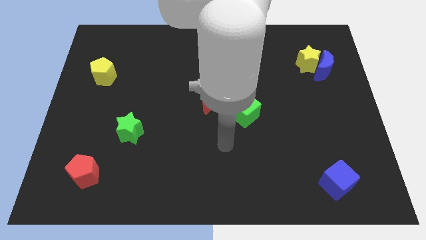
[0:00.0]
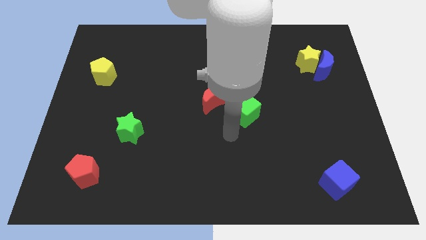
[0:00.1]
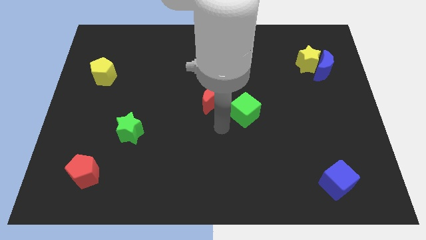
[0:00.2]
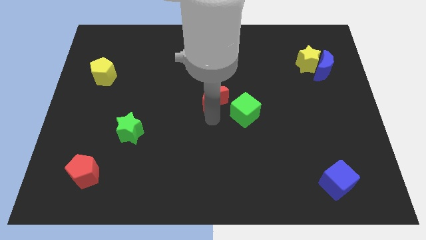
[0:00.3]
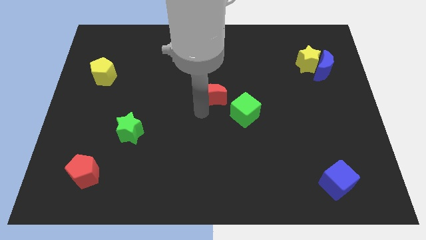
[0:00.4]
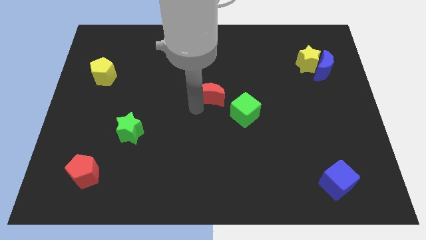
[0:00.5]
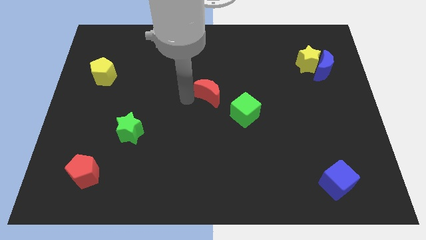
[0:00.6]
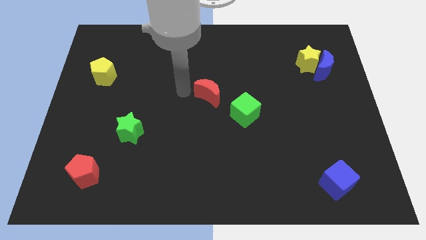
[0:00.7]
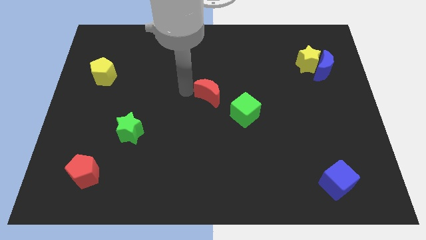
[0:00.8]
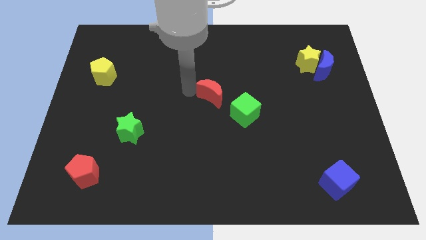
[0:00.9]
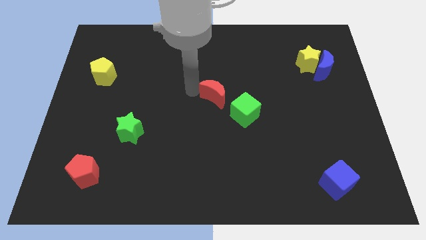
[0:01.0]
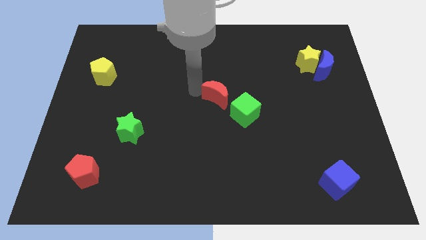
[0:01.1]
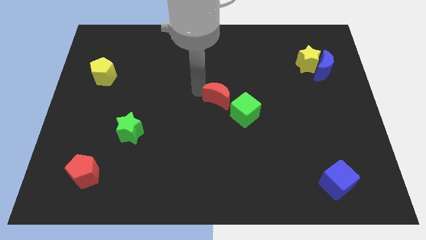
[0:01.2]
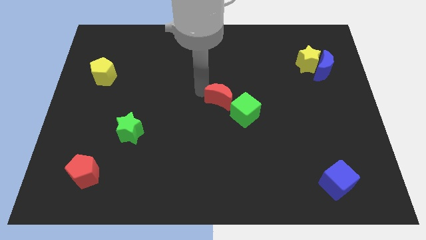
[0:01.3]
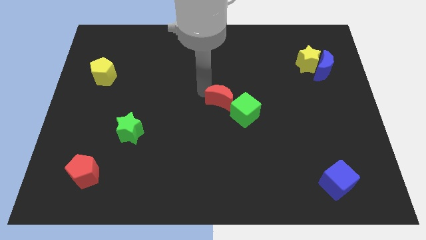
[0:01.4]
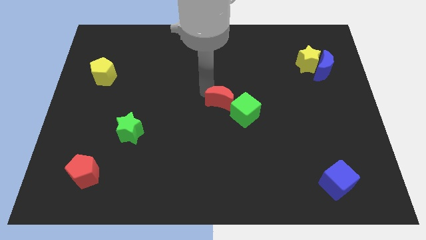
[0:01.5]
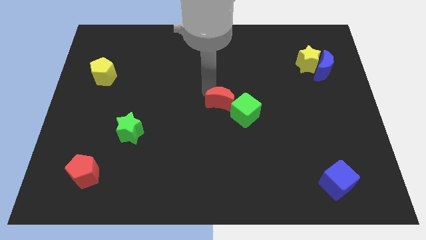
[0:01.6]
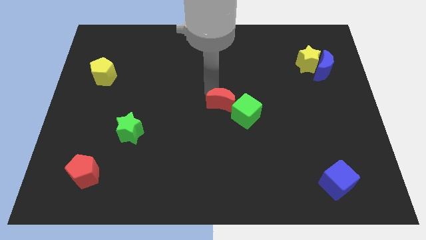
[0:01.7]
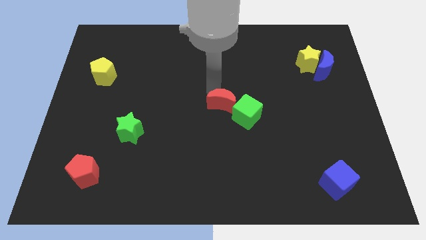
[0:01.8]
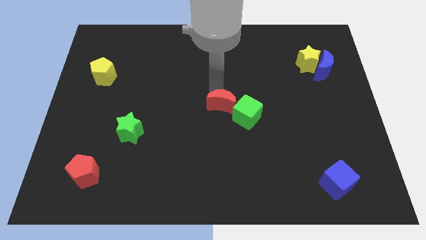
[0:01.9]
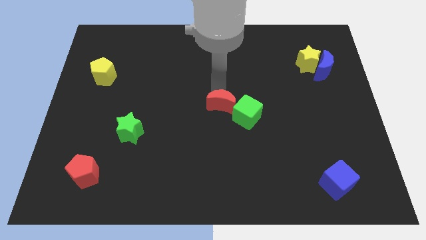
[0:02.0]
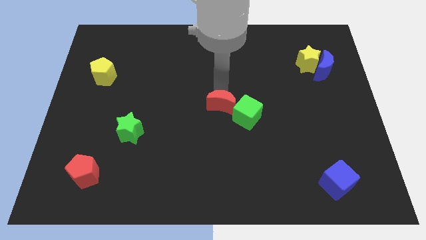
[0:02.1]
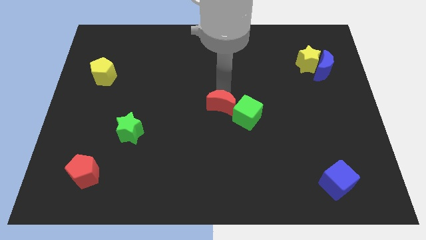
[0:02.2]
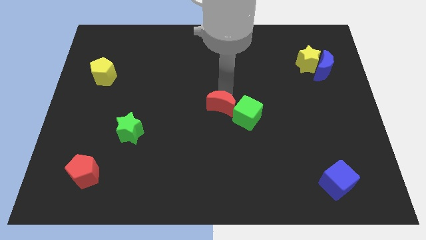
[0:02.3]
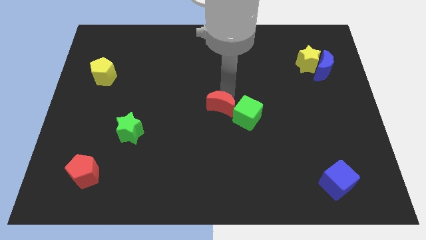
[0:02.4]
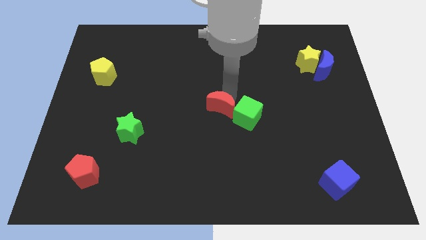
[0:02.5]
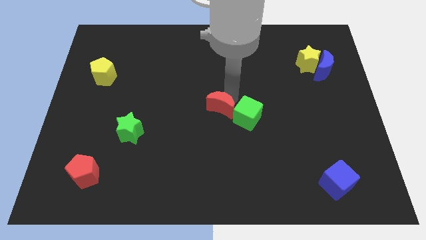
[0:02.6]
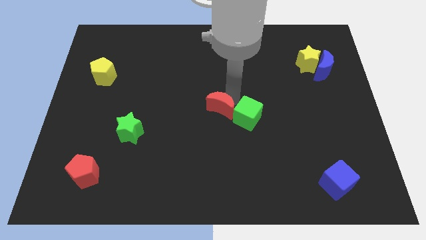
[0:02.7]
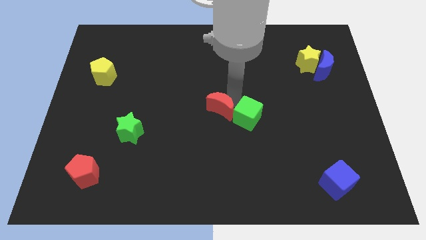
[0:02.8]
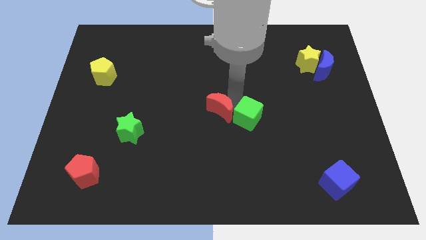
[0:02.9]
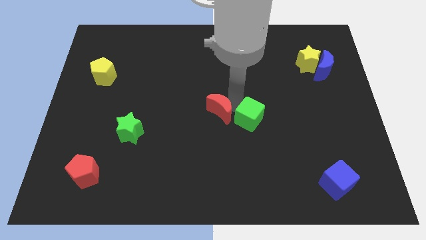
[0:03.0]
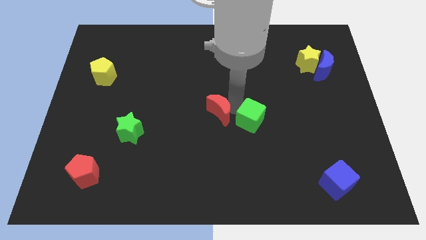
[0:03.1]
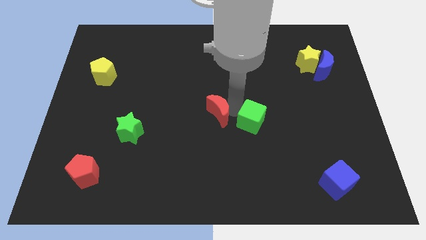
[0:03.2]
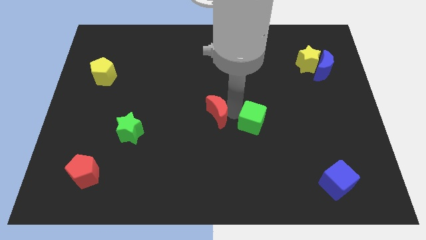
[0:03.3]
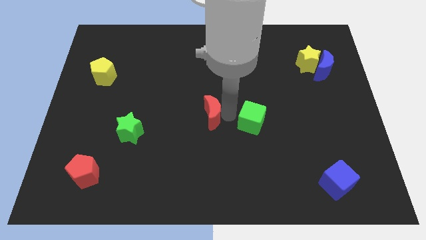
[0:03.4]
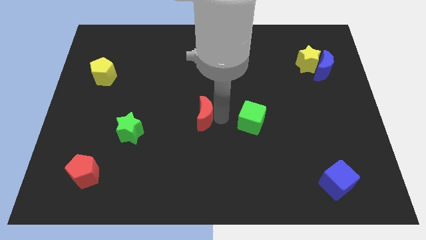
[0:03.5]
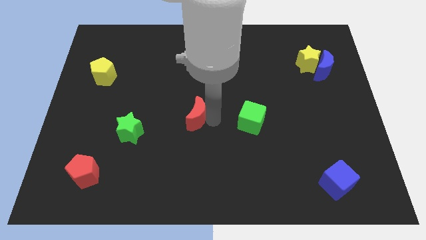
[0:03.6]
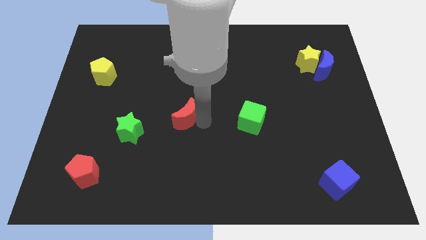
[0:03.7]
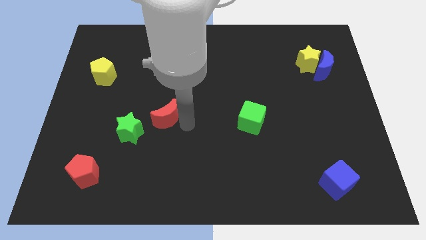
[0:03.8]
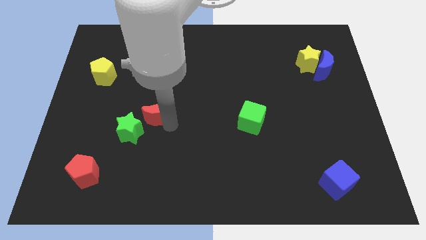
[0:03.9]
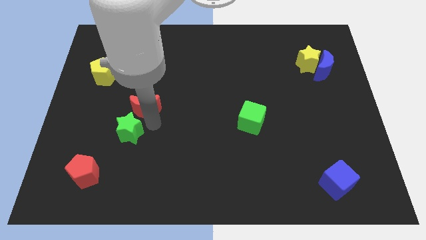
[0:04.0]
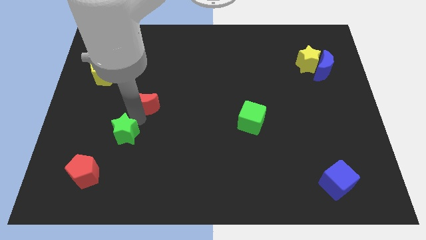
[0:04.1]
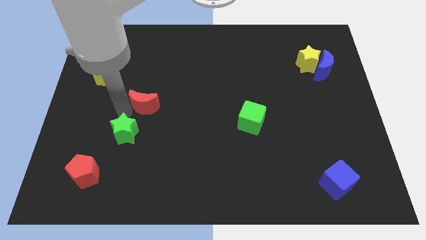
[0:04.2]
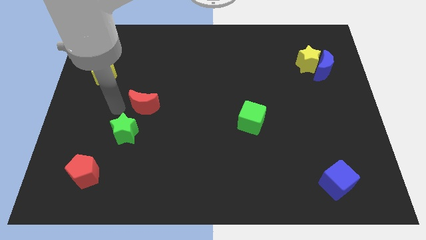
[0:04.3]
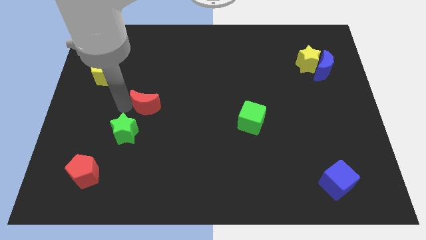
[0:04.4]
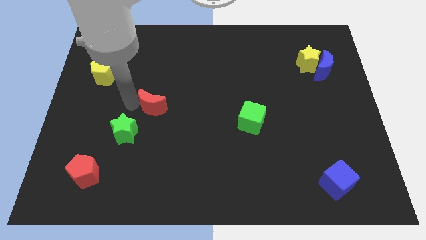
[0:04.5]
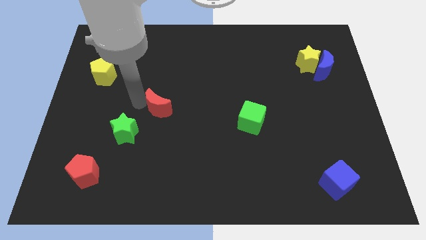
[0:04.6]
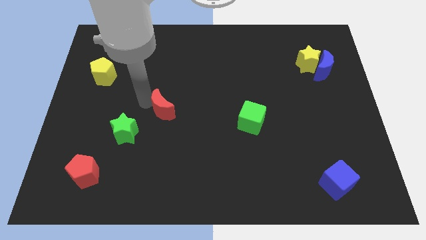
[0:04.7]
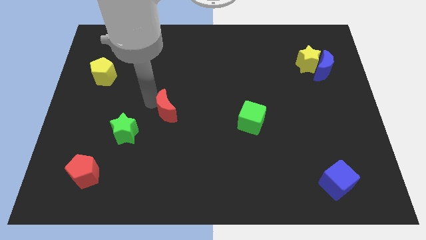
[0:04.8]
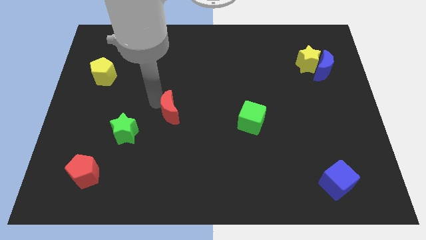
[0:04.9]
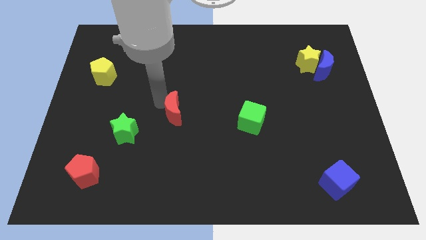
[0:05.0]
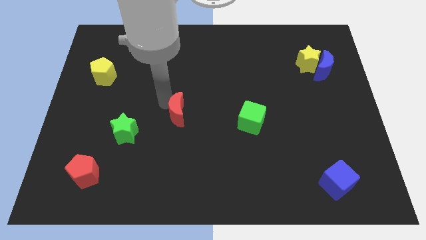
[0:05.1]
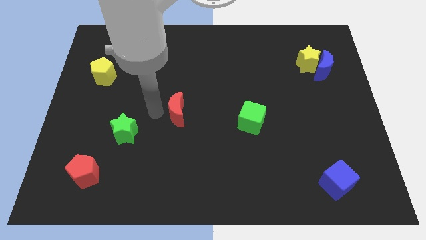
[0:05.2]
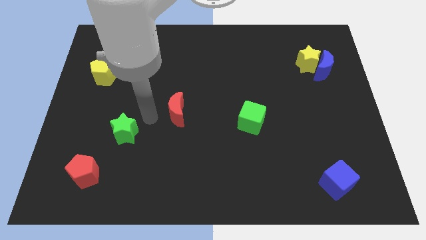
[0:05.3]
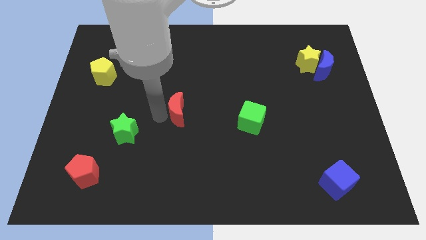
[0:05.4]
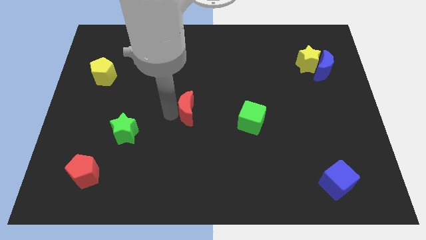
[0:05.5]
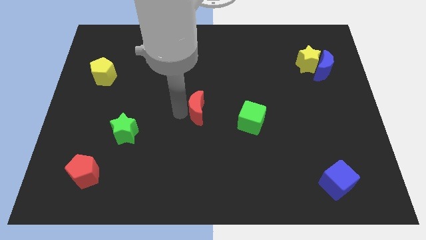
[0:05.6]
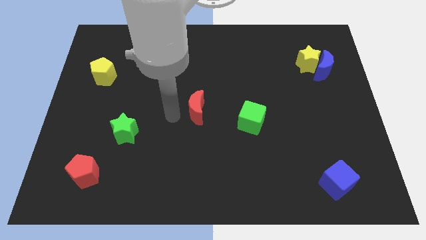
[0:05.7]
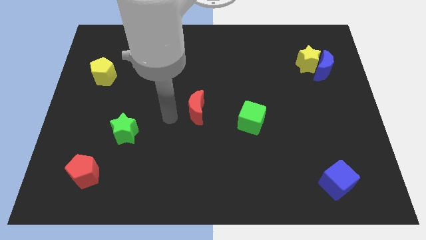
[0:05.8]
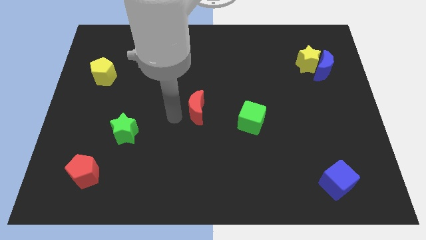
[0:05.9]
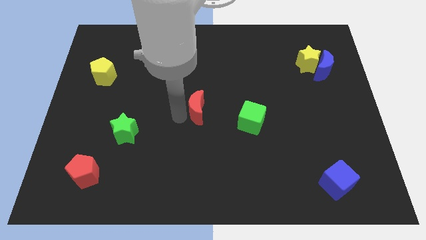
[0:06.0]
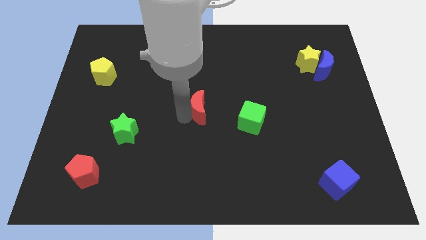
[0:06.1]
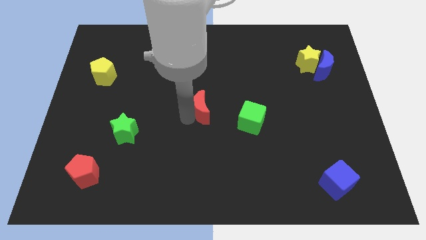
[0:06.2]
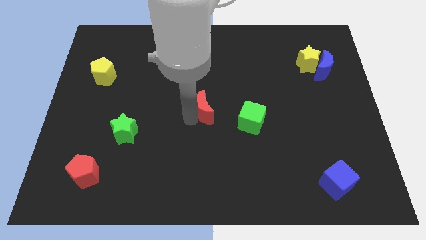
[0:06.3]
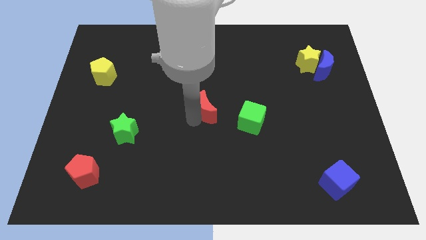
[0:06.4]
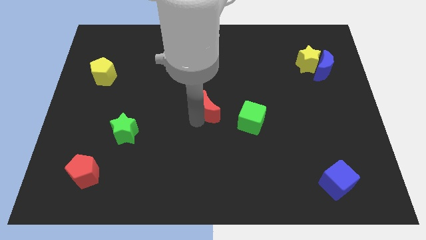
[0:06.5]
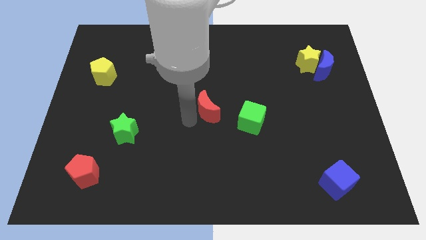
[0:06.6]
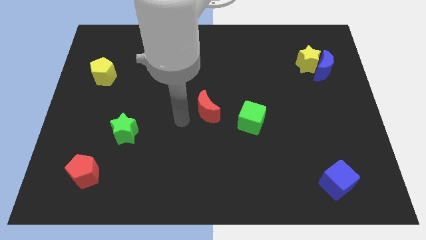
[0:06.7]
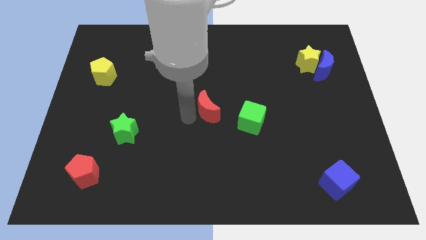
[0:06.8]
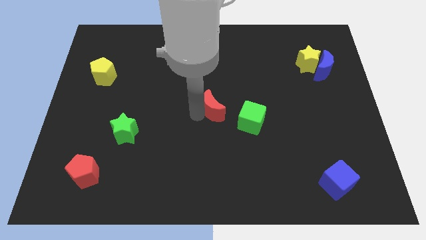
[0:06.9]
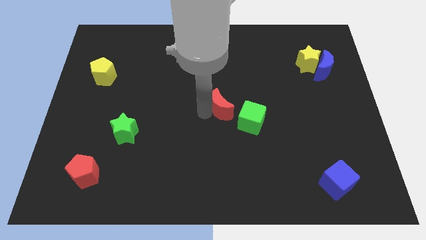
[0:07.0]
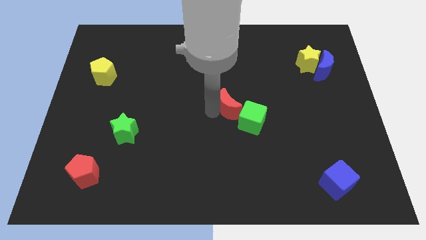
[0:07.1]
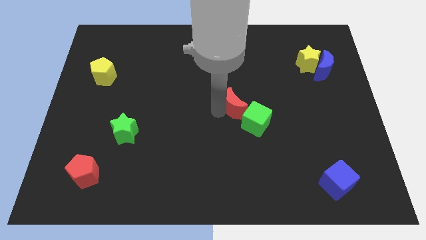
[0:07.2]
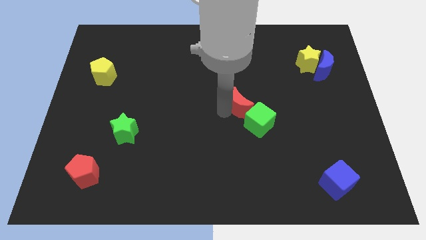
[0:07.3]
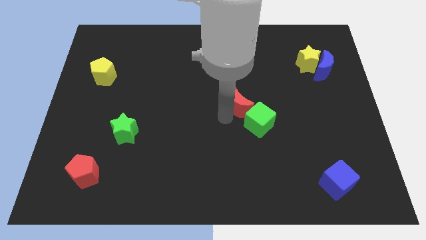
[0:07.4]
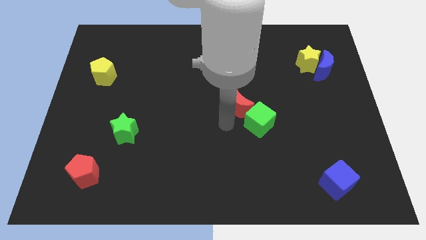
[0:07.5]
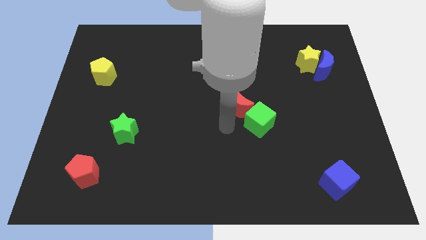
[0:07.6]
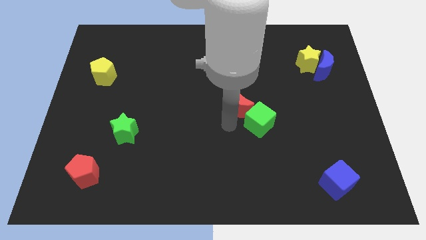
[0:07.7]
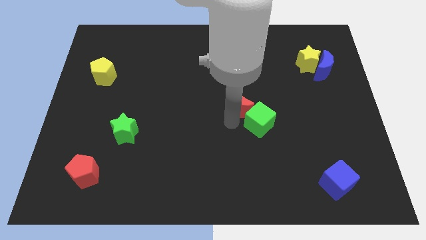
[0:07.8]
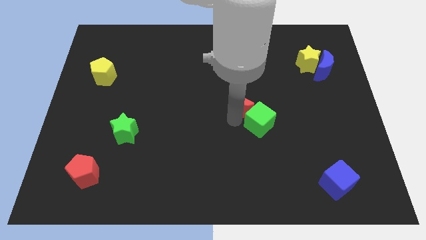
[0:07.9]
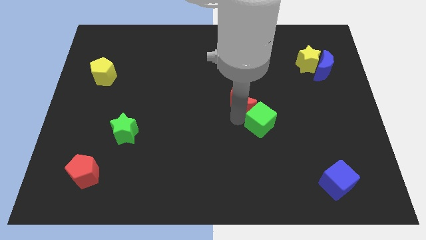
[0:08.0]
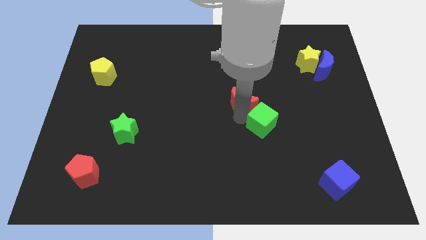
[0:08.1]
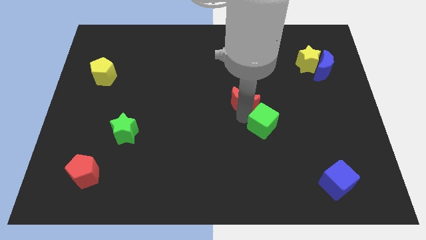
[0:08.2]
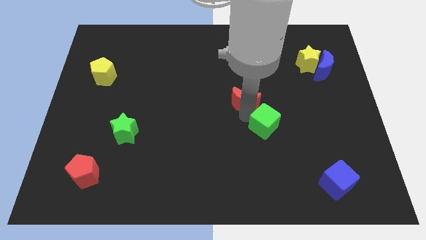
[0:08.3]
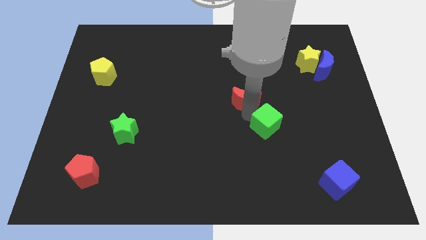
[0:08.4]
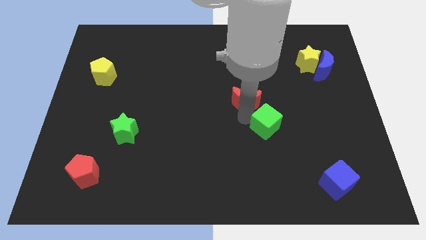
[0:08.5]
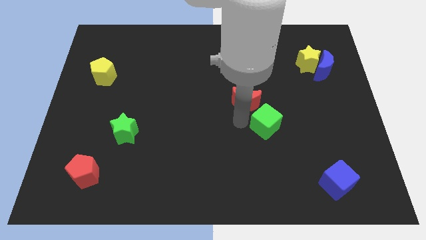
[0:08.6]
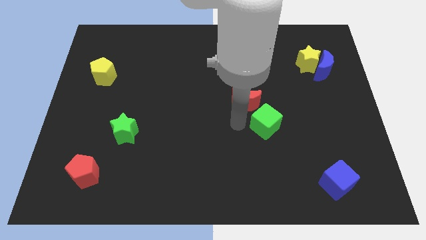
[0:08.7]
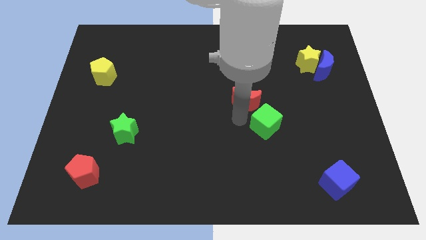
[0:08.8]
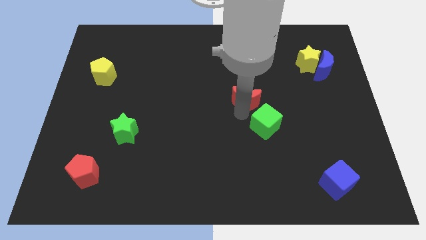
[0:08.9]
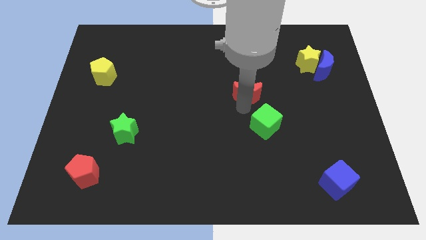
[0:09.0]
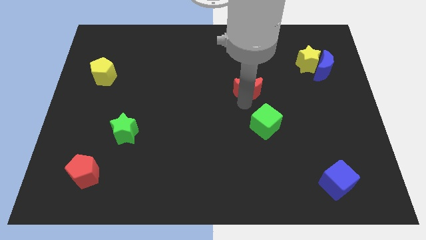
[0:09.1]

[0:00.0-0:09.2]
slide the red moon diagonally up and to the right a little bit
